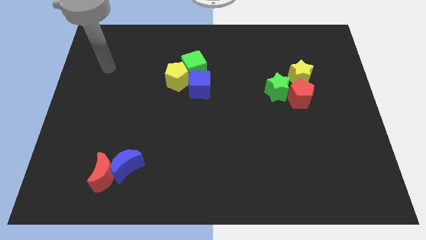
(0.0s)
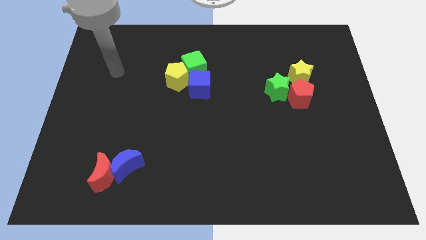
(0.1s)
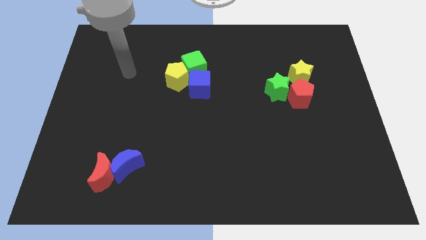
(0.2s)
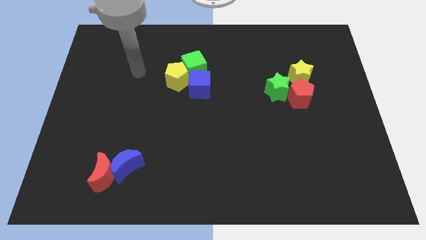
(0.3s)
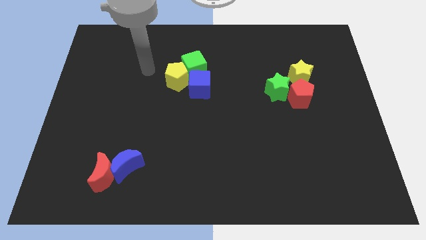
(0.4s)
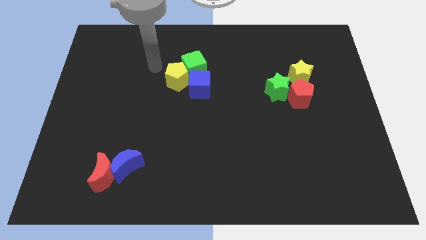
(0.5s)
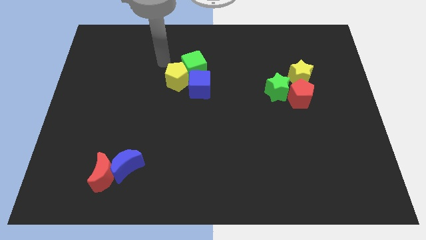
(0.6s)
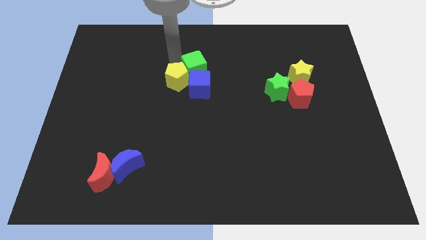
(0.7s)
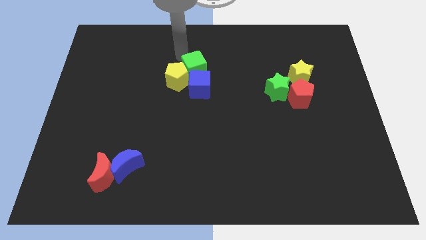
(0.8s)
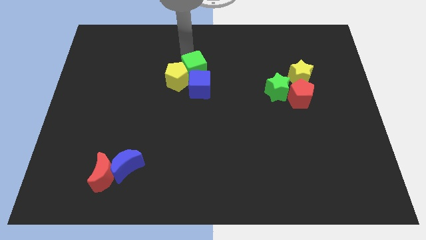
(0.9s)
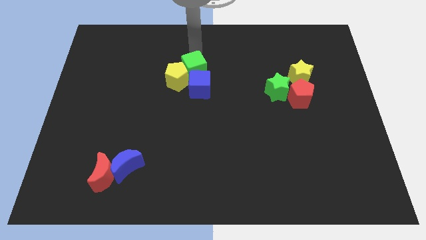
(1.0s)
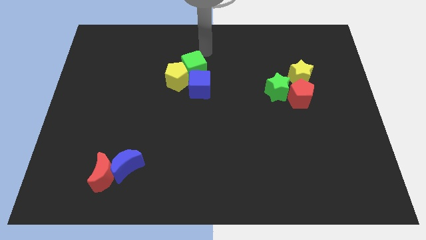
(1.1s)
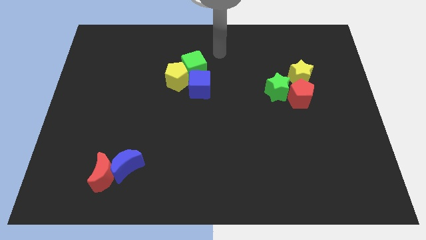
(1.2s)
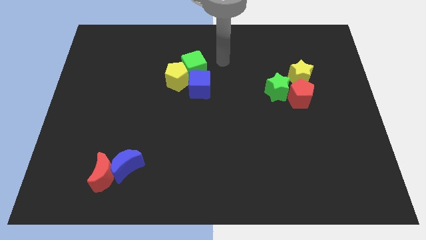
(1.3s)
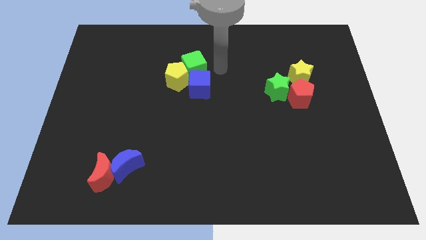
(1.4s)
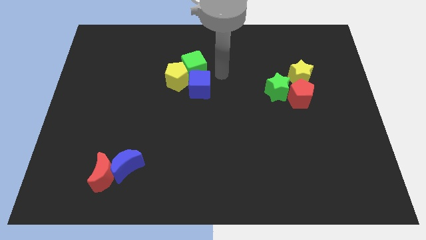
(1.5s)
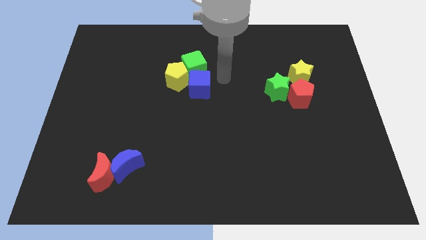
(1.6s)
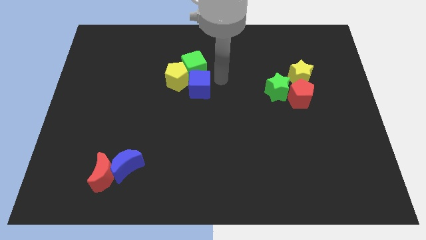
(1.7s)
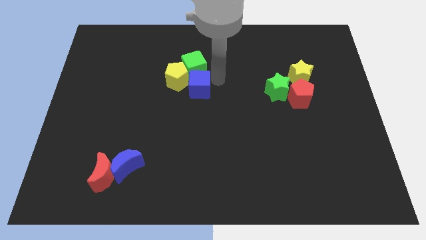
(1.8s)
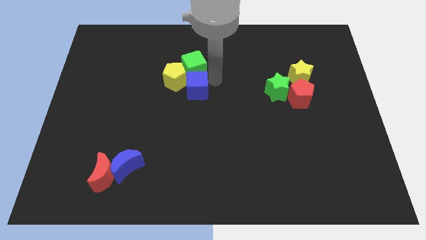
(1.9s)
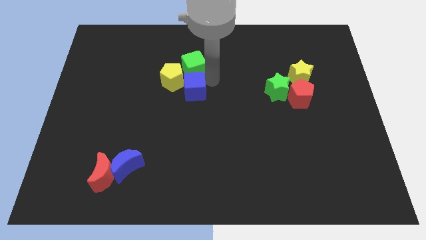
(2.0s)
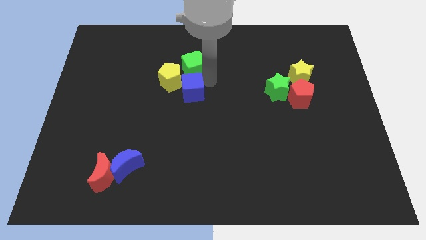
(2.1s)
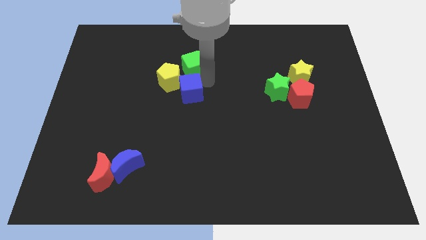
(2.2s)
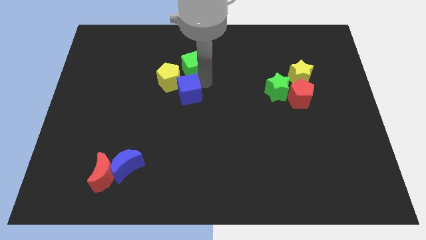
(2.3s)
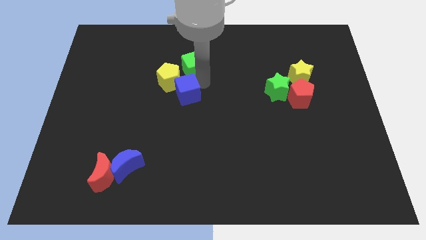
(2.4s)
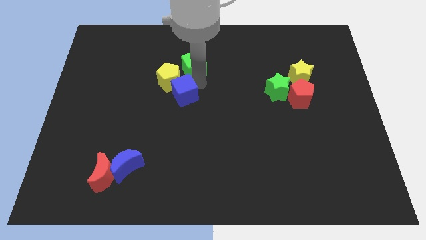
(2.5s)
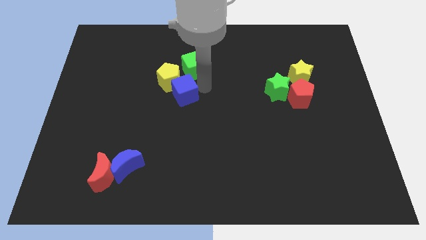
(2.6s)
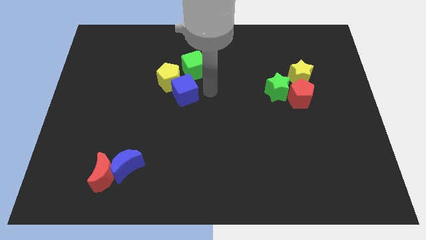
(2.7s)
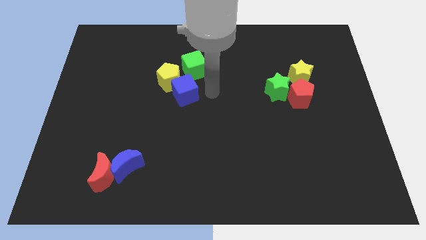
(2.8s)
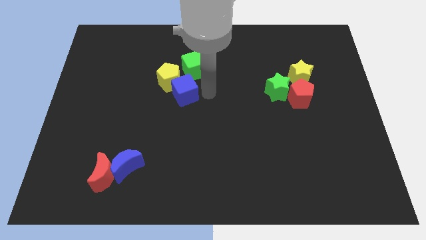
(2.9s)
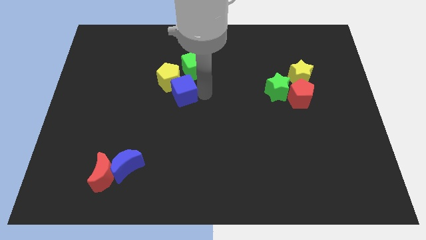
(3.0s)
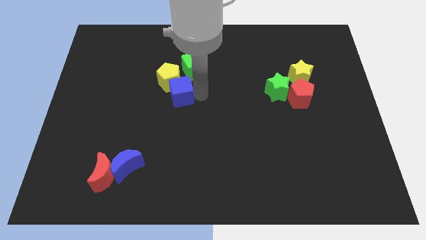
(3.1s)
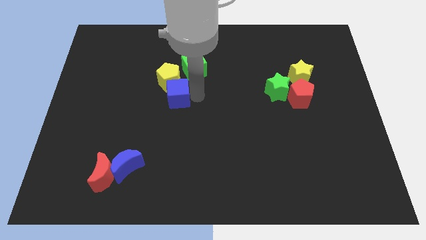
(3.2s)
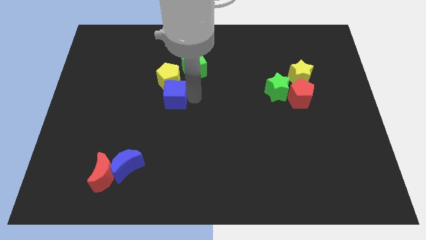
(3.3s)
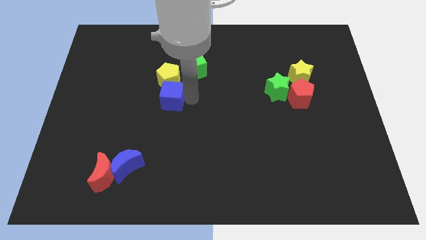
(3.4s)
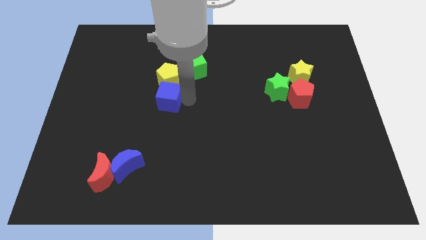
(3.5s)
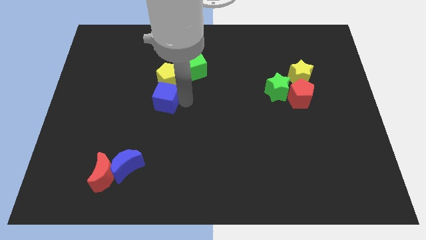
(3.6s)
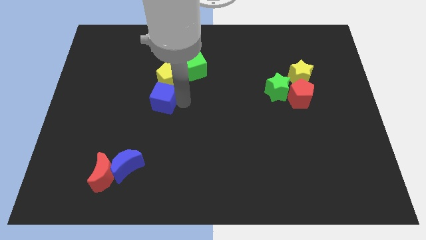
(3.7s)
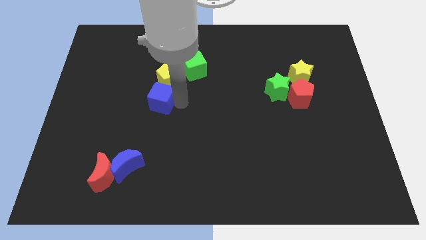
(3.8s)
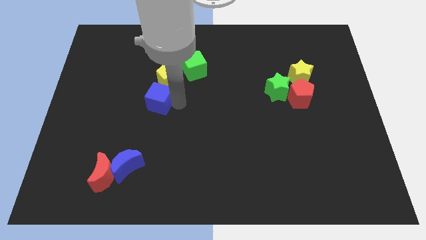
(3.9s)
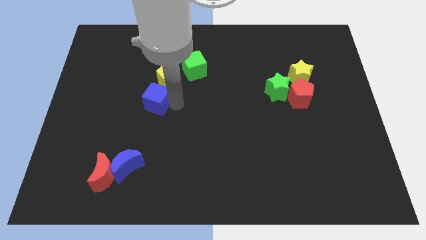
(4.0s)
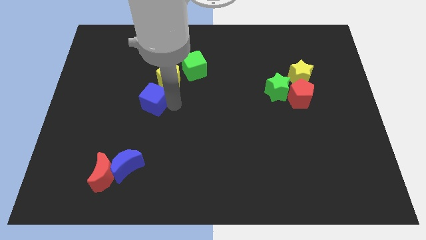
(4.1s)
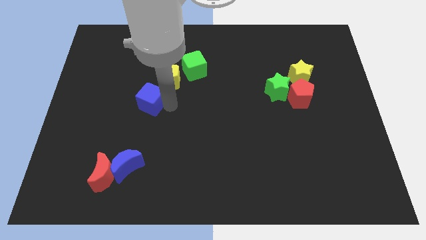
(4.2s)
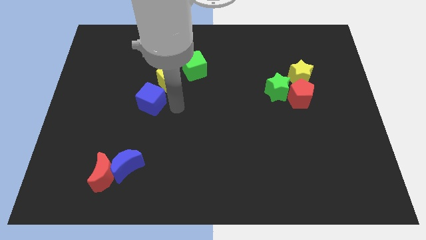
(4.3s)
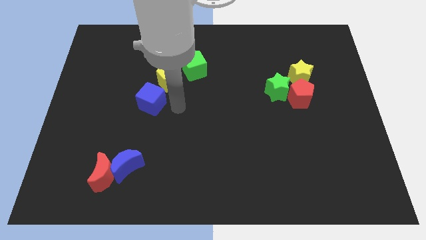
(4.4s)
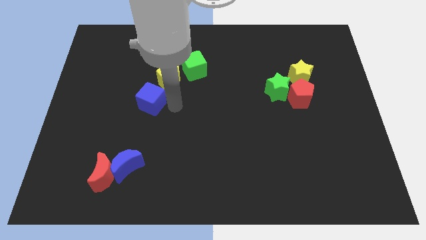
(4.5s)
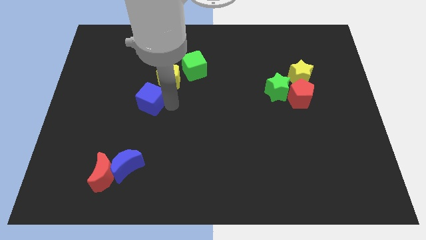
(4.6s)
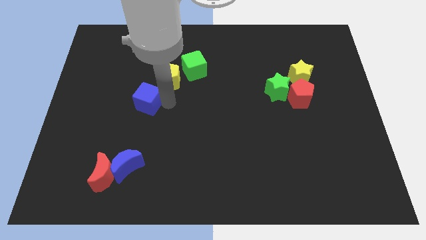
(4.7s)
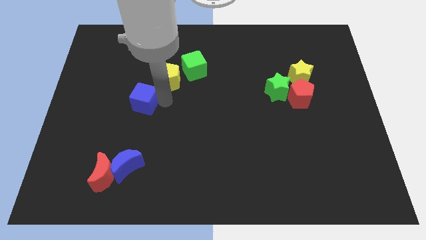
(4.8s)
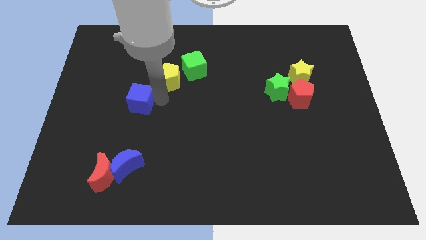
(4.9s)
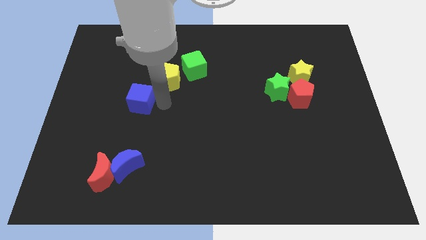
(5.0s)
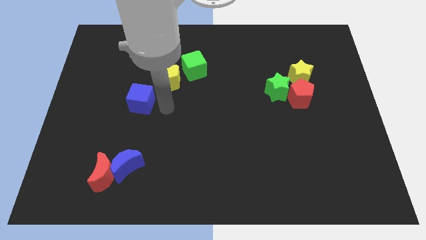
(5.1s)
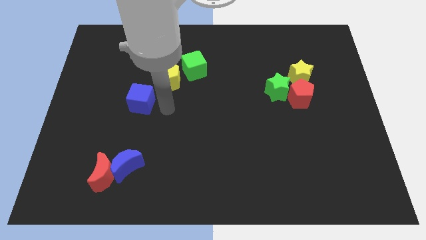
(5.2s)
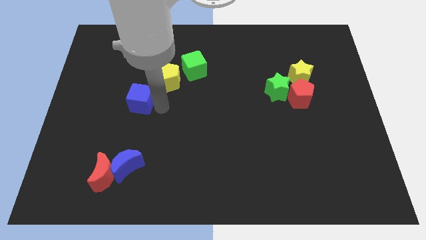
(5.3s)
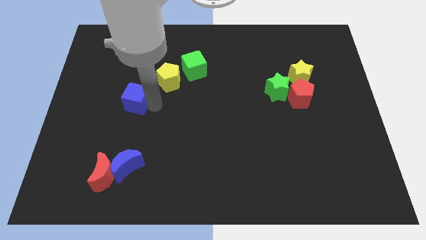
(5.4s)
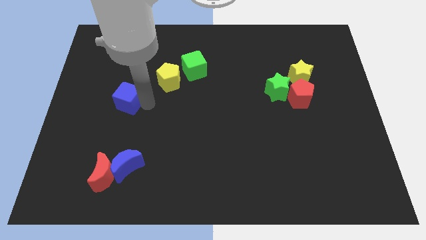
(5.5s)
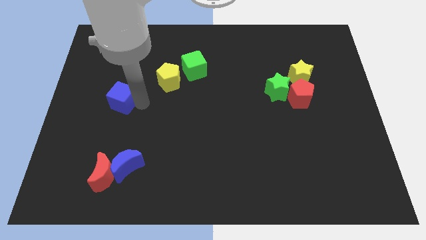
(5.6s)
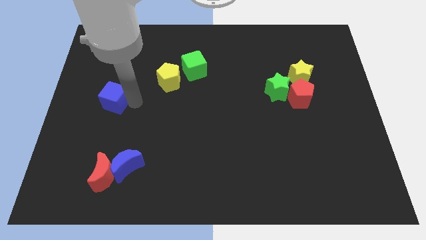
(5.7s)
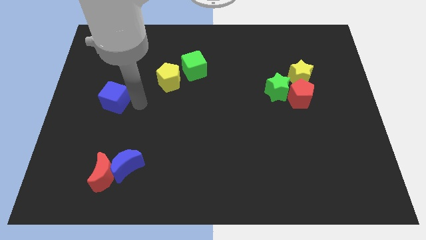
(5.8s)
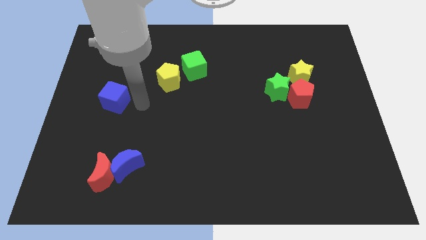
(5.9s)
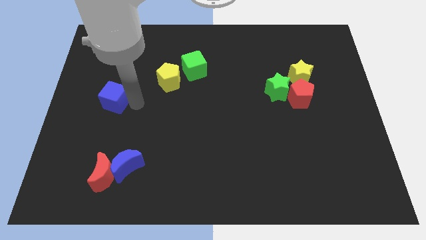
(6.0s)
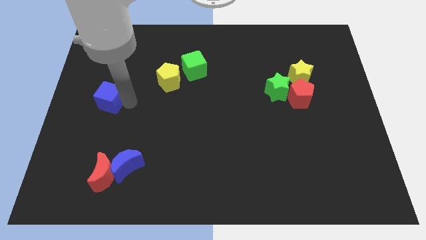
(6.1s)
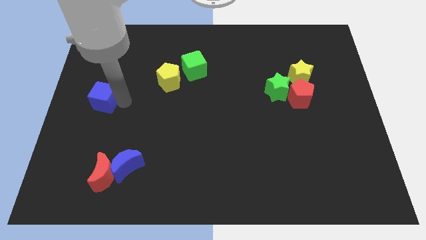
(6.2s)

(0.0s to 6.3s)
put the blue cube to the center left

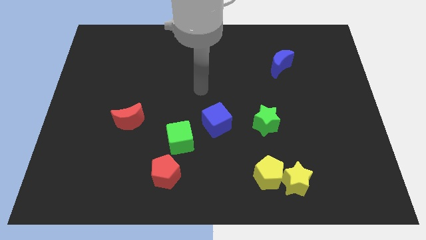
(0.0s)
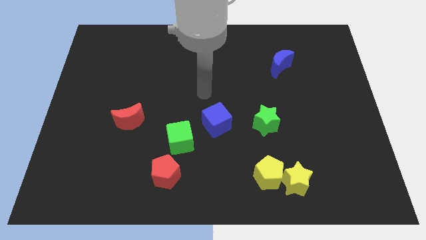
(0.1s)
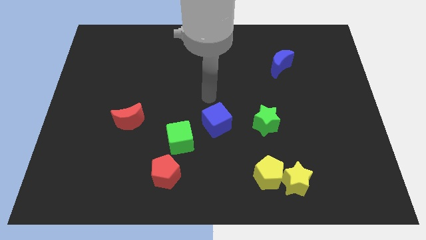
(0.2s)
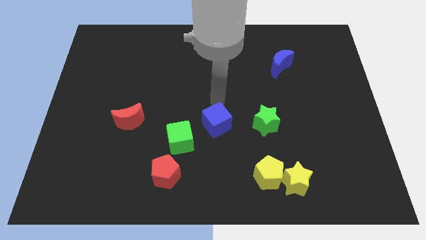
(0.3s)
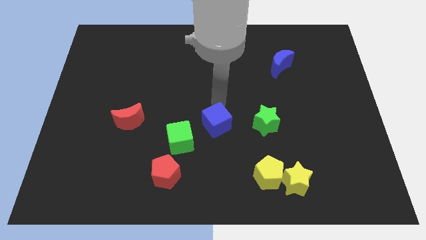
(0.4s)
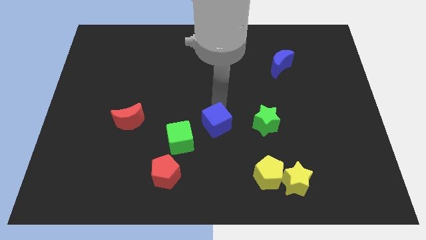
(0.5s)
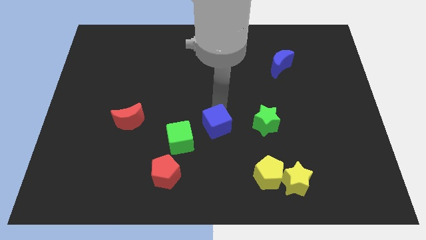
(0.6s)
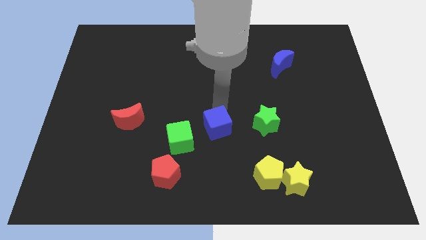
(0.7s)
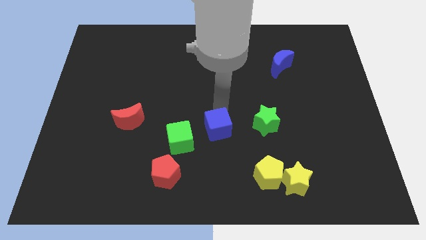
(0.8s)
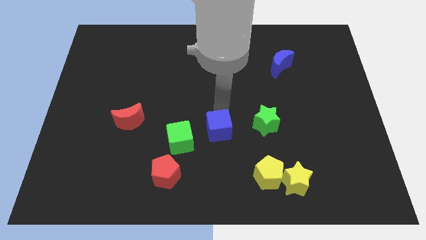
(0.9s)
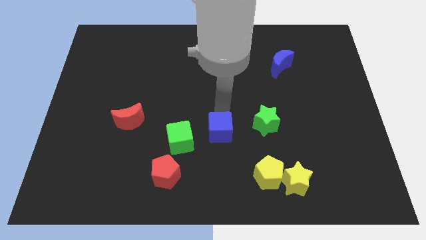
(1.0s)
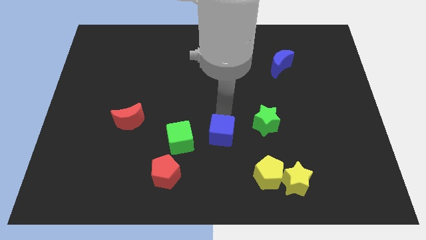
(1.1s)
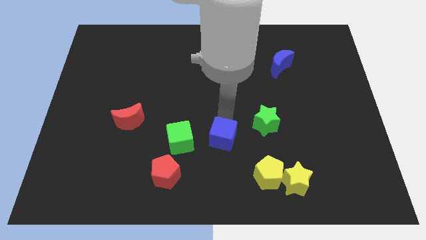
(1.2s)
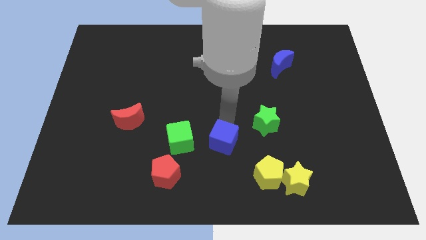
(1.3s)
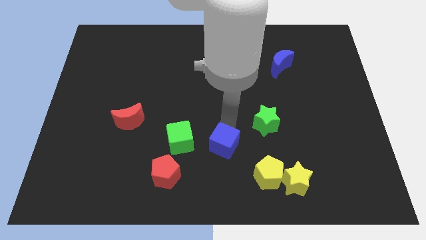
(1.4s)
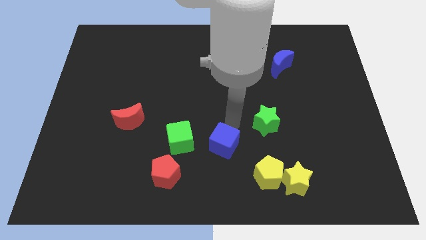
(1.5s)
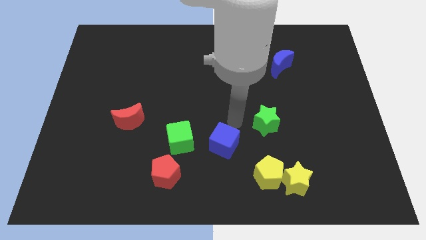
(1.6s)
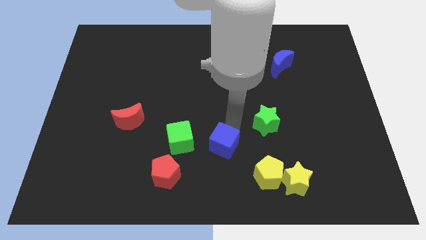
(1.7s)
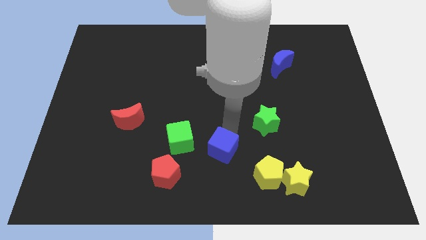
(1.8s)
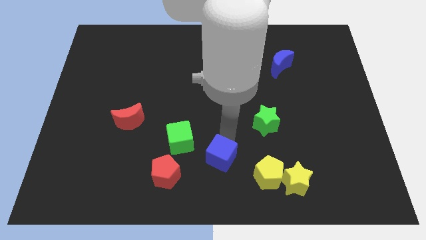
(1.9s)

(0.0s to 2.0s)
move the blue cube to the bottom side
